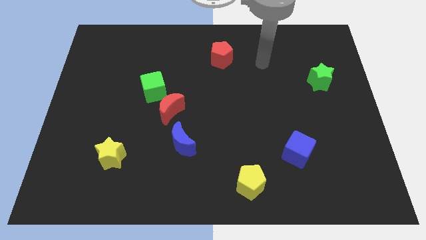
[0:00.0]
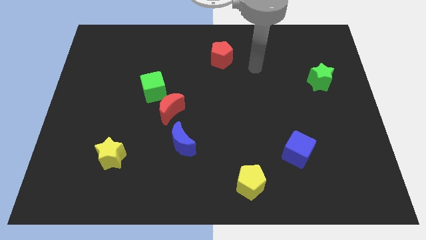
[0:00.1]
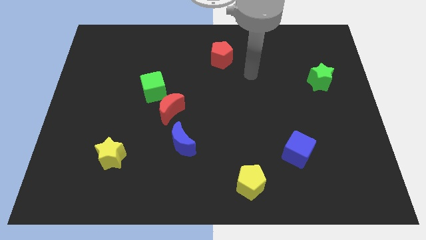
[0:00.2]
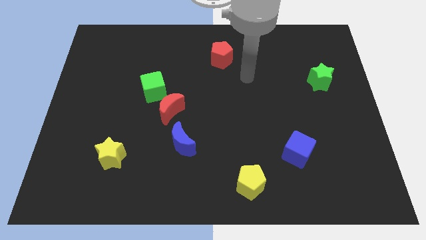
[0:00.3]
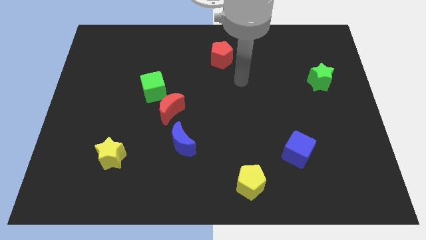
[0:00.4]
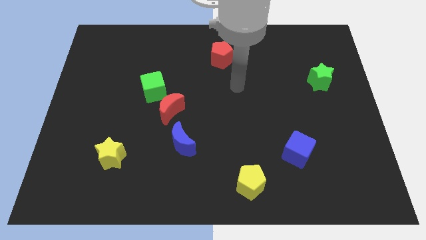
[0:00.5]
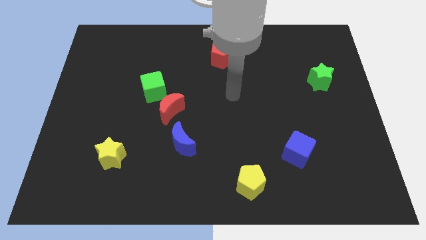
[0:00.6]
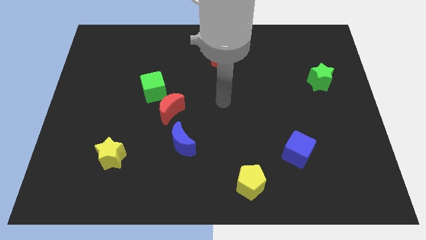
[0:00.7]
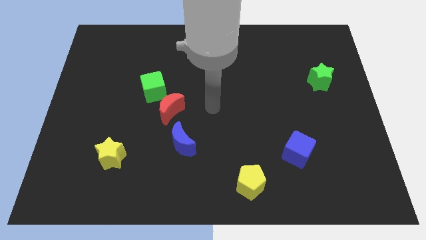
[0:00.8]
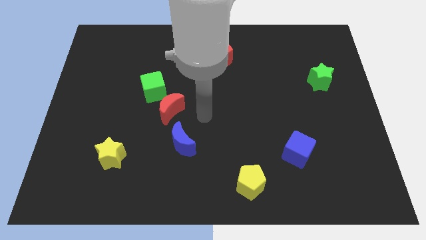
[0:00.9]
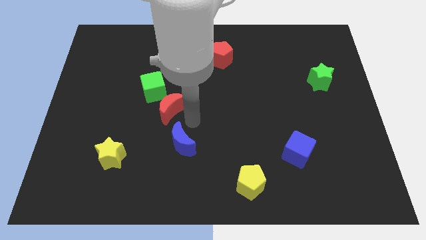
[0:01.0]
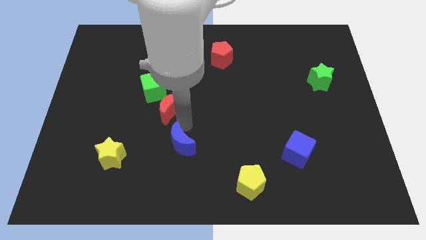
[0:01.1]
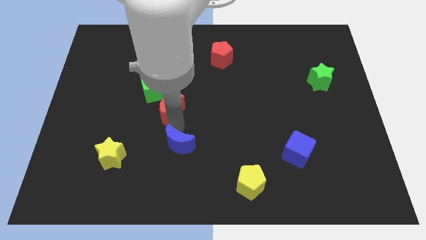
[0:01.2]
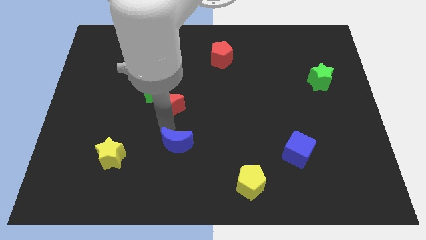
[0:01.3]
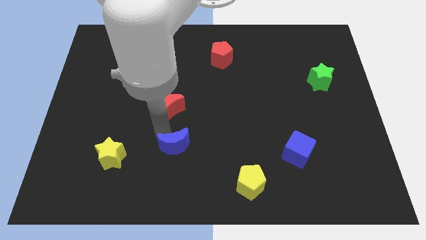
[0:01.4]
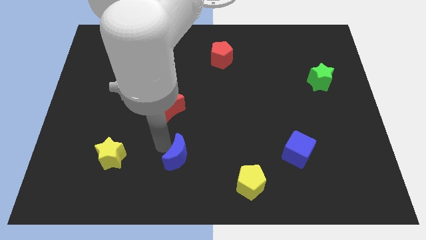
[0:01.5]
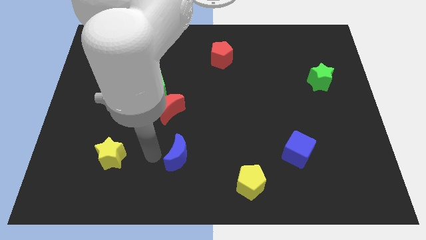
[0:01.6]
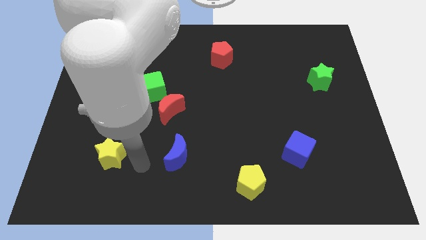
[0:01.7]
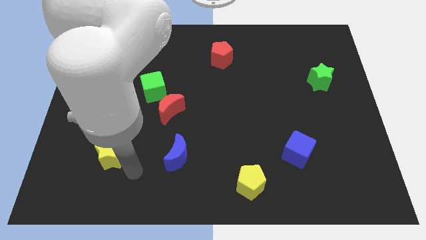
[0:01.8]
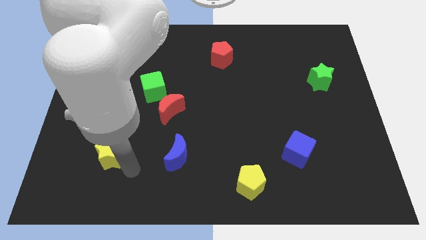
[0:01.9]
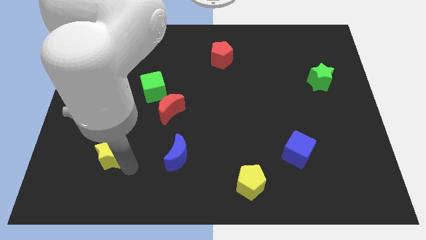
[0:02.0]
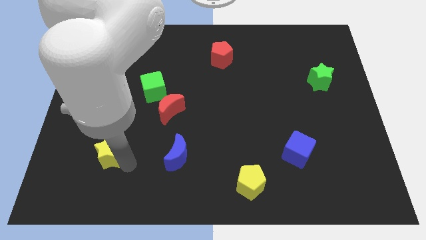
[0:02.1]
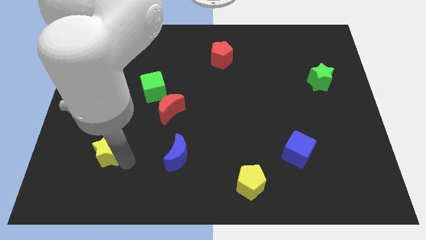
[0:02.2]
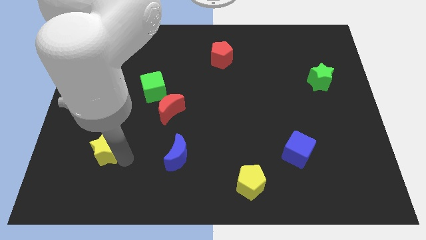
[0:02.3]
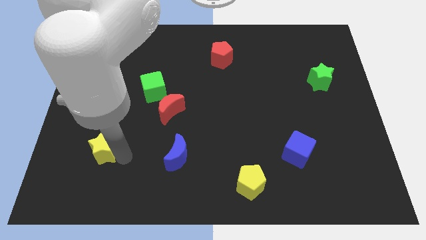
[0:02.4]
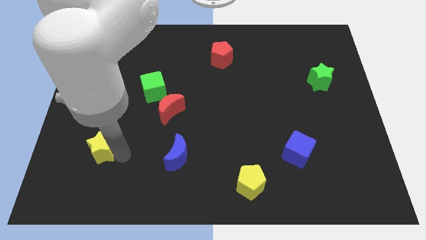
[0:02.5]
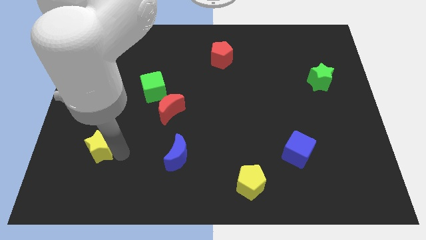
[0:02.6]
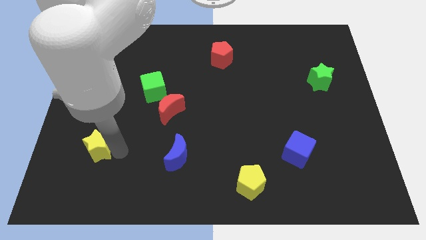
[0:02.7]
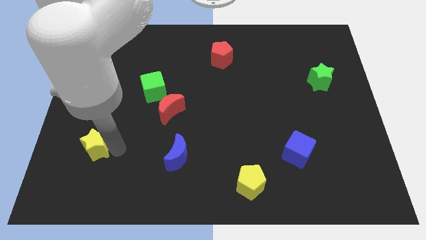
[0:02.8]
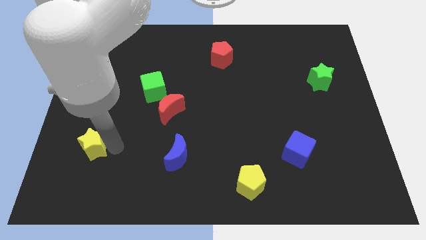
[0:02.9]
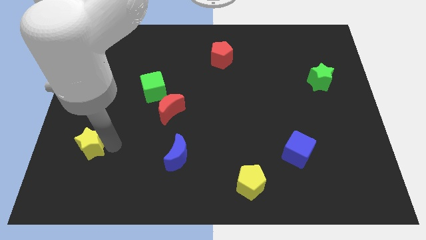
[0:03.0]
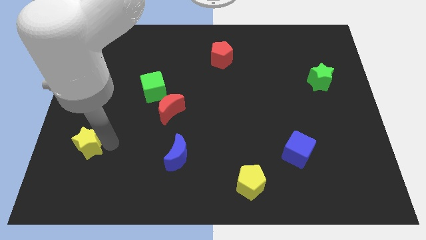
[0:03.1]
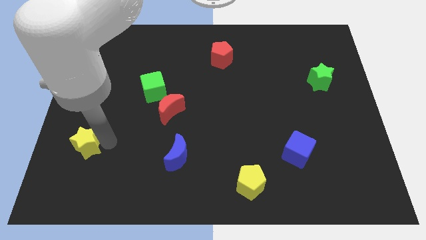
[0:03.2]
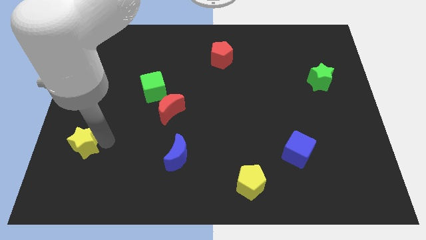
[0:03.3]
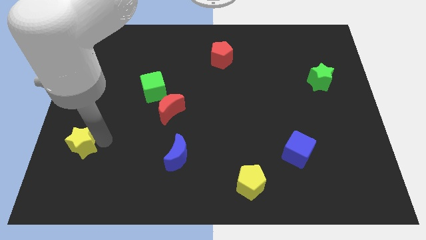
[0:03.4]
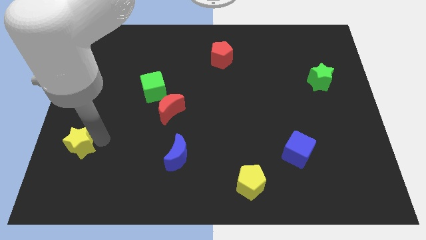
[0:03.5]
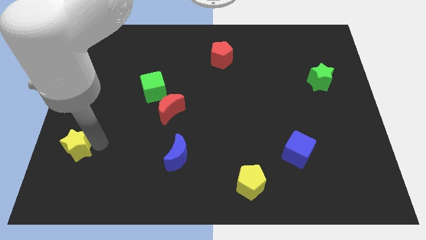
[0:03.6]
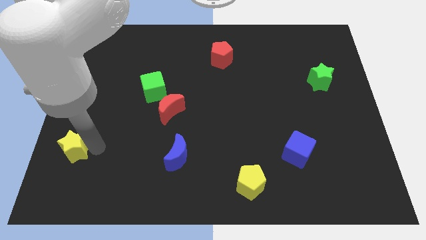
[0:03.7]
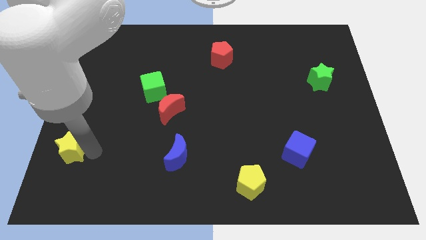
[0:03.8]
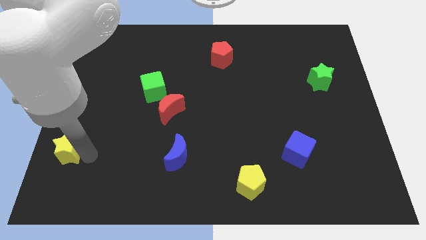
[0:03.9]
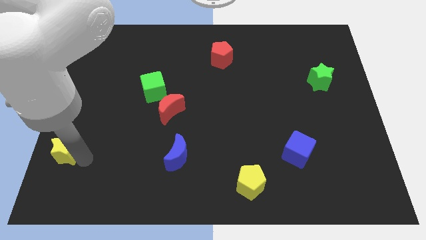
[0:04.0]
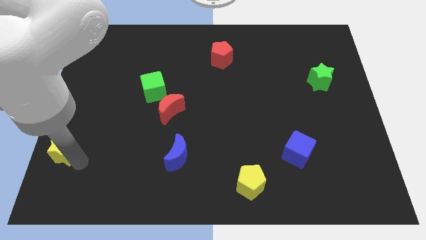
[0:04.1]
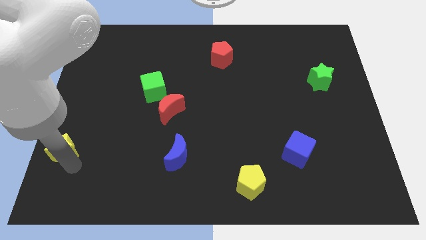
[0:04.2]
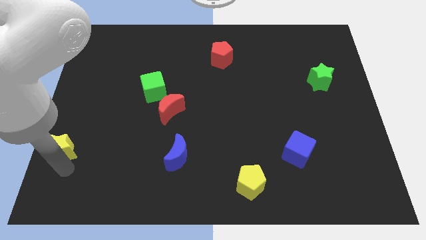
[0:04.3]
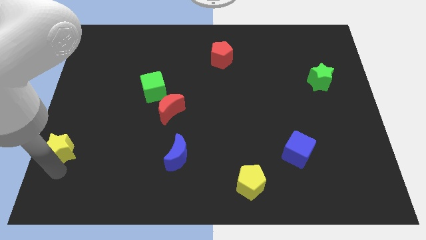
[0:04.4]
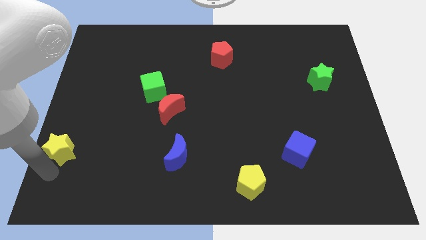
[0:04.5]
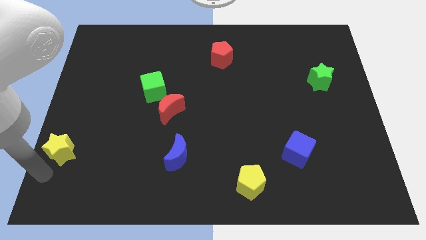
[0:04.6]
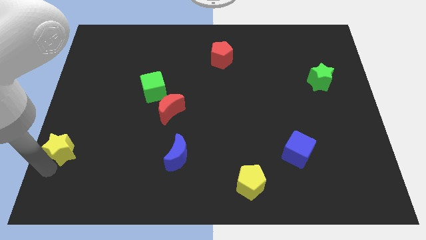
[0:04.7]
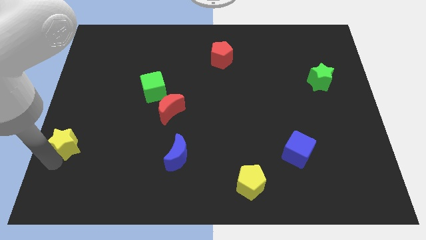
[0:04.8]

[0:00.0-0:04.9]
slide the yellow star to the left side of the board

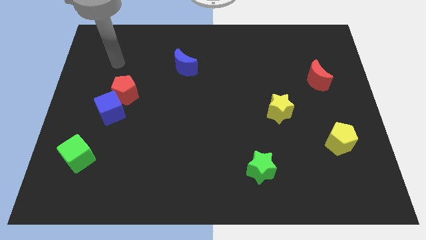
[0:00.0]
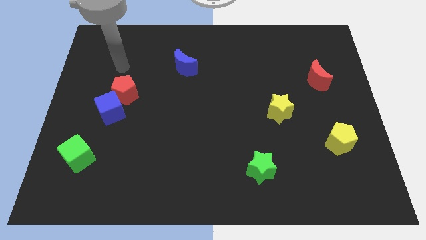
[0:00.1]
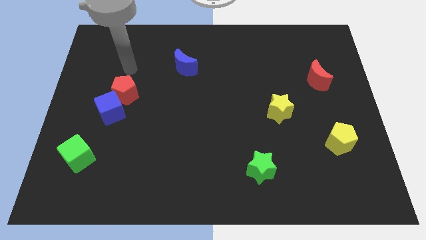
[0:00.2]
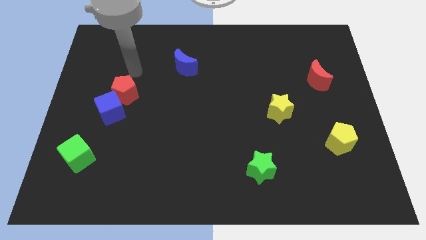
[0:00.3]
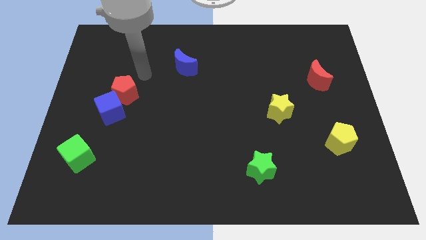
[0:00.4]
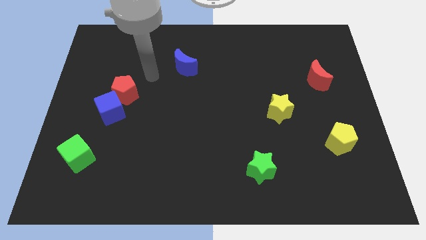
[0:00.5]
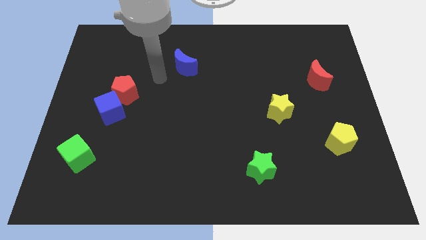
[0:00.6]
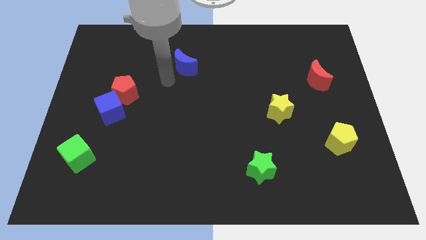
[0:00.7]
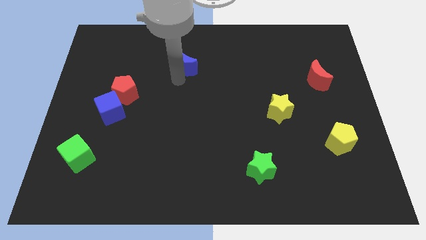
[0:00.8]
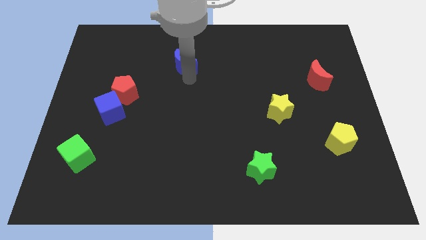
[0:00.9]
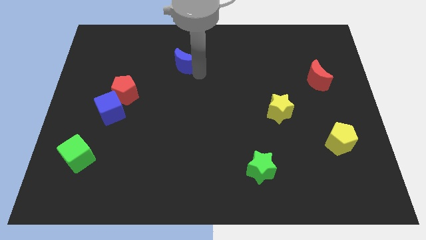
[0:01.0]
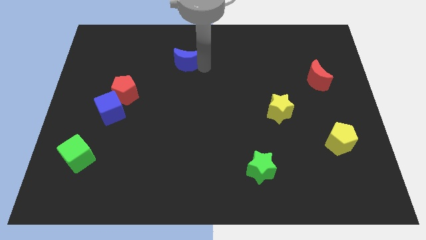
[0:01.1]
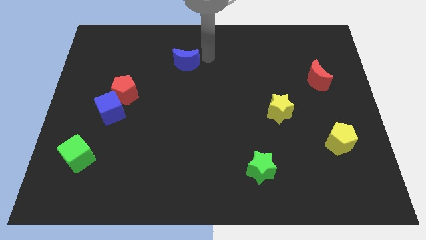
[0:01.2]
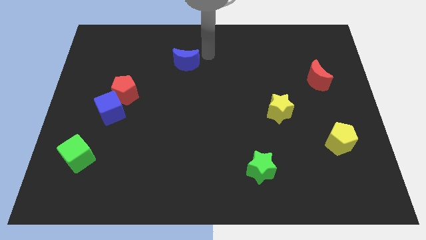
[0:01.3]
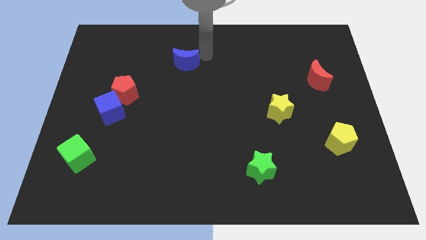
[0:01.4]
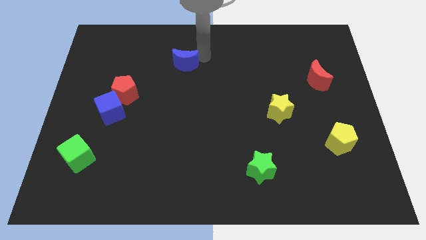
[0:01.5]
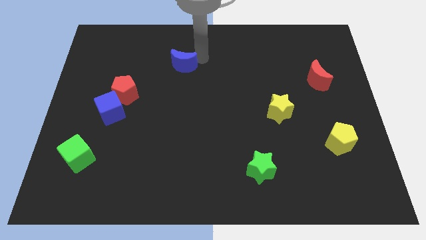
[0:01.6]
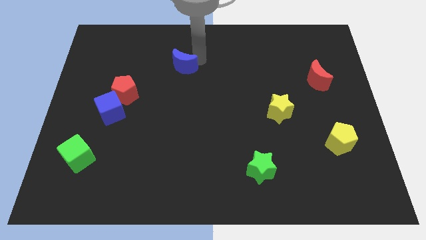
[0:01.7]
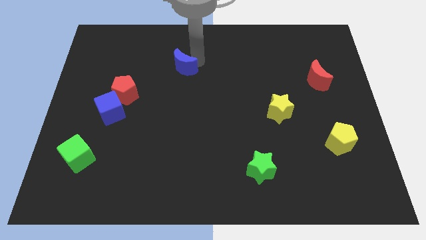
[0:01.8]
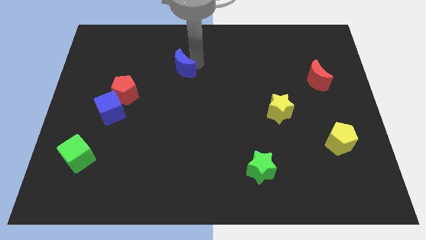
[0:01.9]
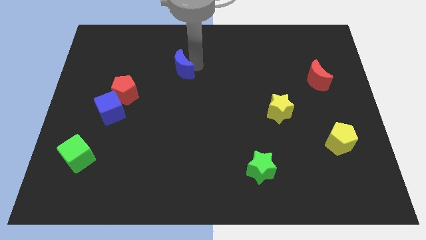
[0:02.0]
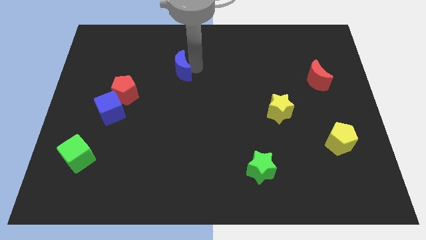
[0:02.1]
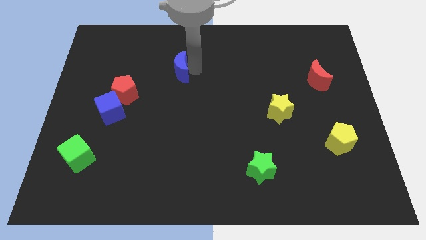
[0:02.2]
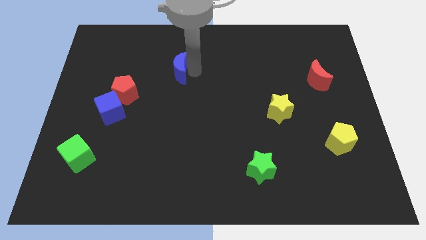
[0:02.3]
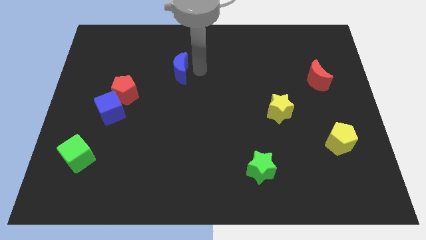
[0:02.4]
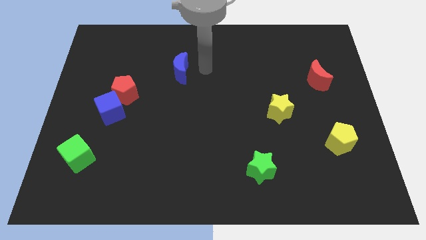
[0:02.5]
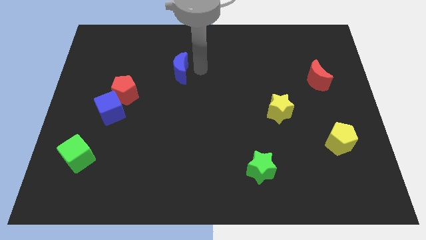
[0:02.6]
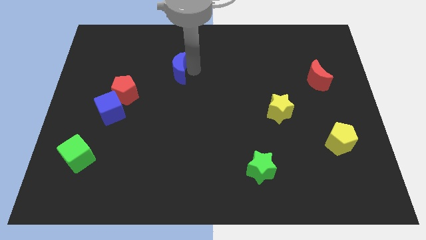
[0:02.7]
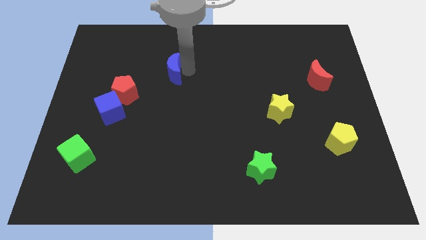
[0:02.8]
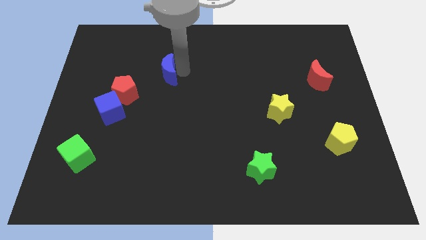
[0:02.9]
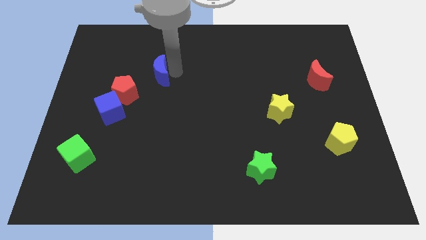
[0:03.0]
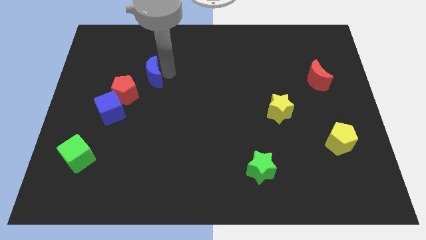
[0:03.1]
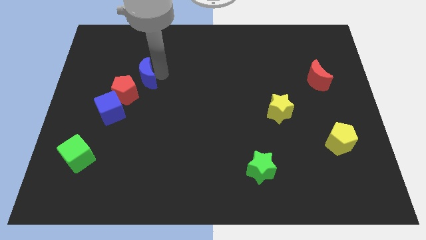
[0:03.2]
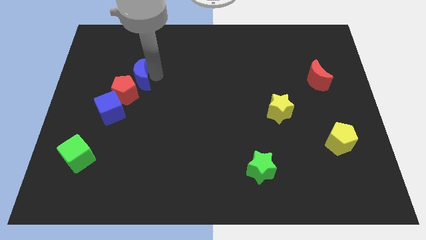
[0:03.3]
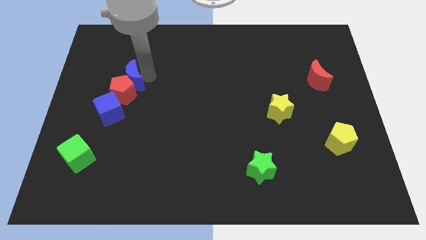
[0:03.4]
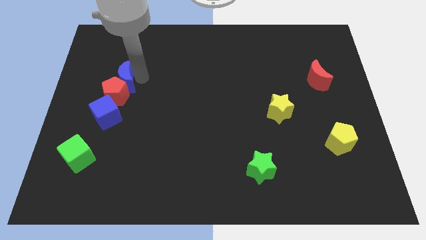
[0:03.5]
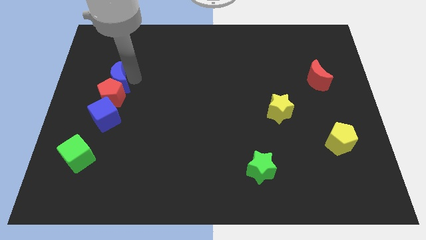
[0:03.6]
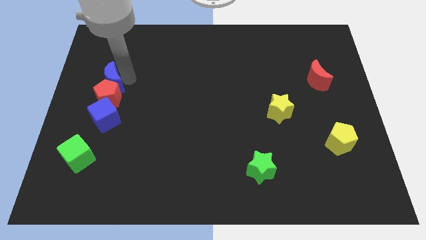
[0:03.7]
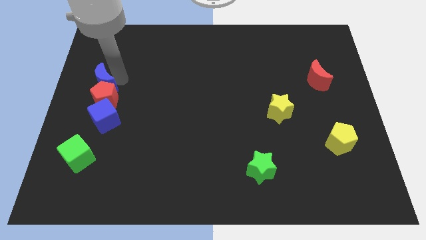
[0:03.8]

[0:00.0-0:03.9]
move the blue moon to the left side
